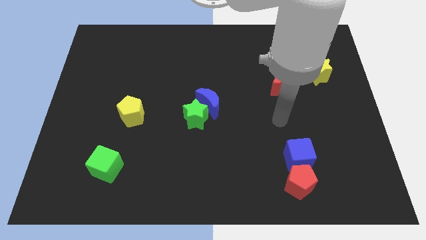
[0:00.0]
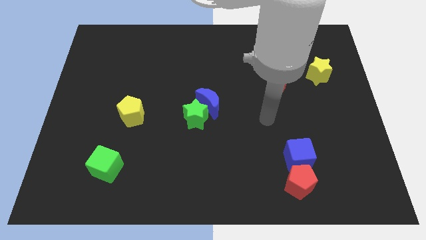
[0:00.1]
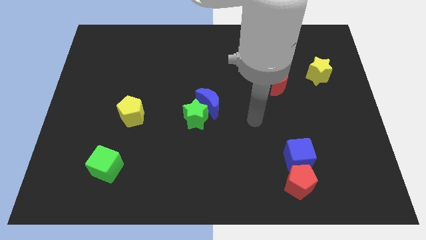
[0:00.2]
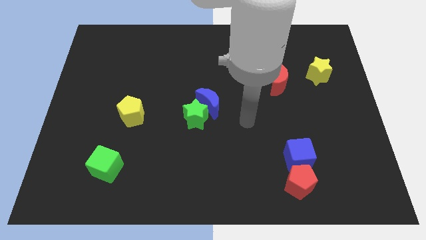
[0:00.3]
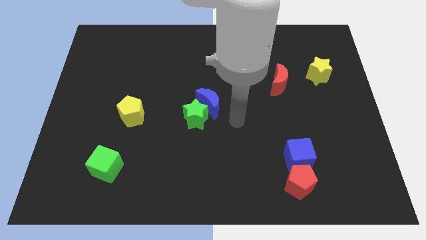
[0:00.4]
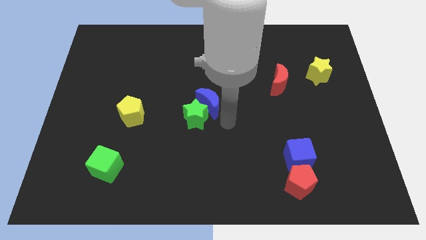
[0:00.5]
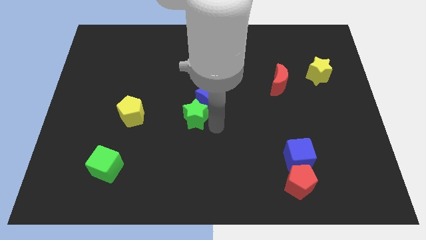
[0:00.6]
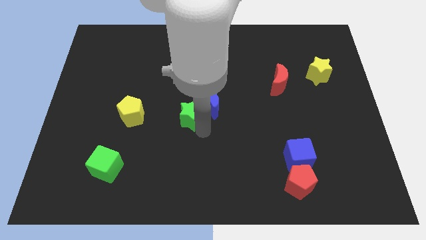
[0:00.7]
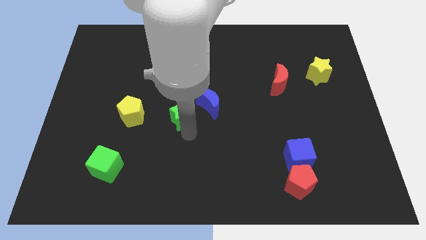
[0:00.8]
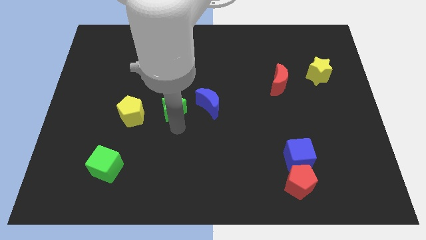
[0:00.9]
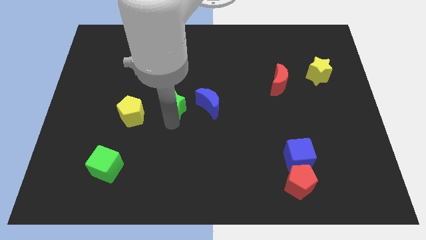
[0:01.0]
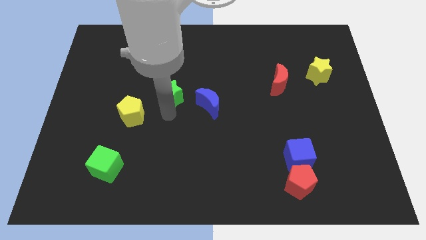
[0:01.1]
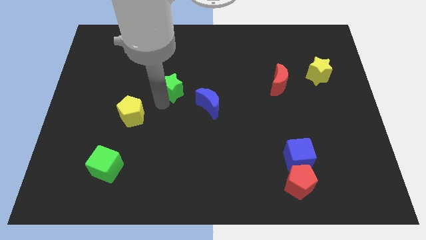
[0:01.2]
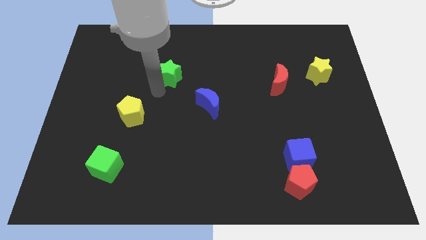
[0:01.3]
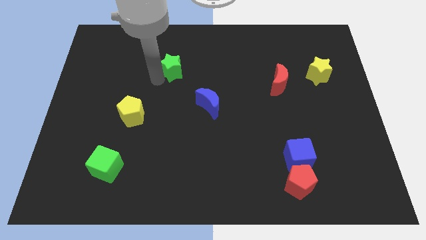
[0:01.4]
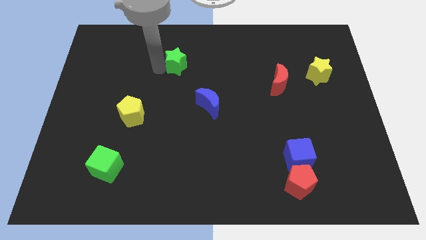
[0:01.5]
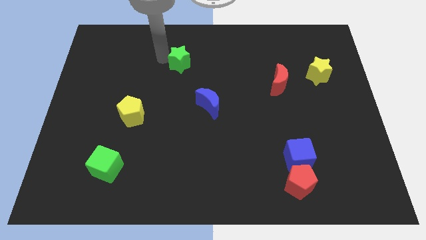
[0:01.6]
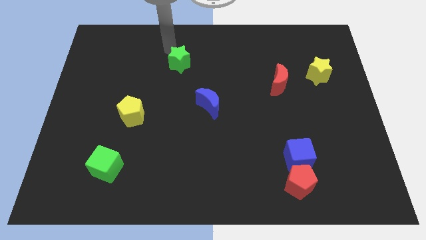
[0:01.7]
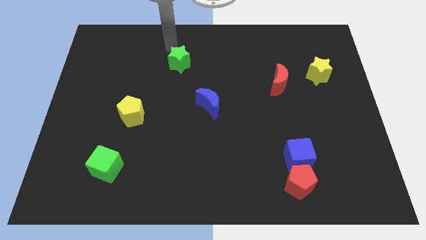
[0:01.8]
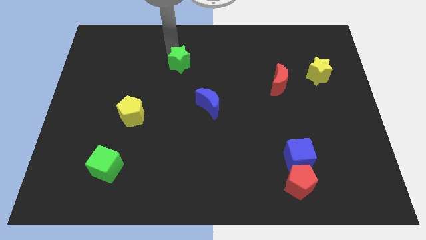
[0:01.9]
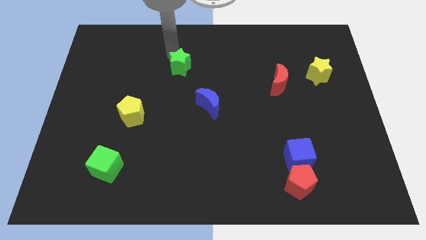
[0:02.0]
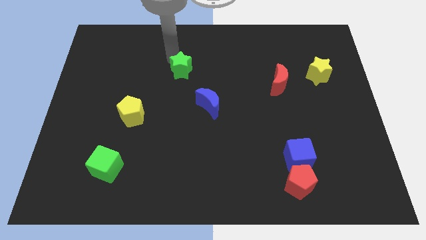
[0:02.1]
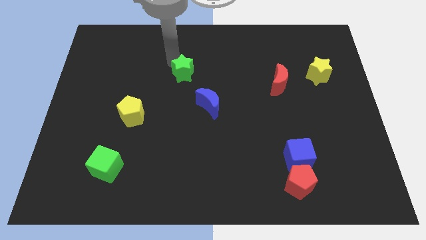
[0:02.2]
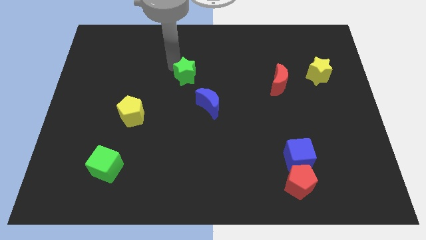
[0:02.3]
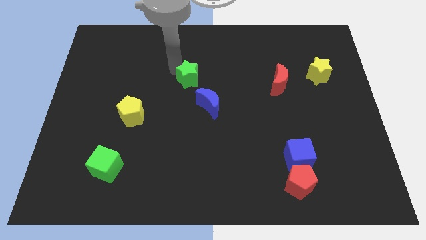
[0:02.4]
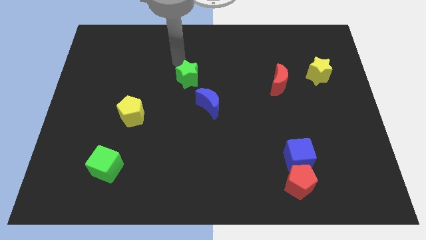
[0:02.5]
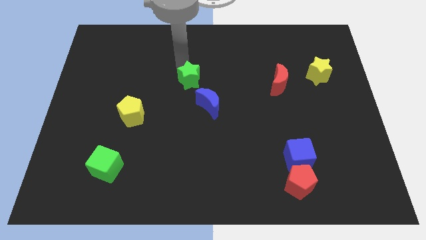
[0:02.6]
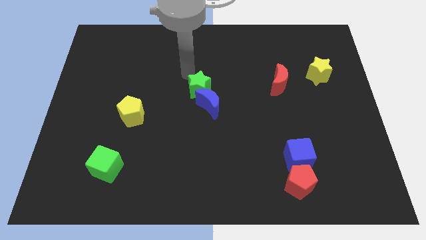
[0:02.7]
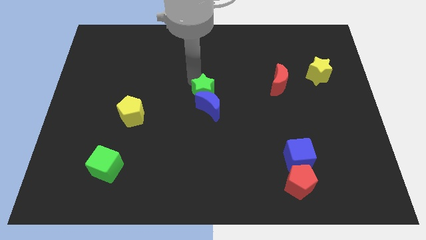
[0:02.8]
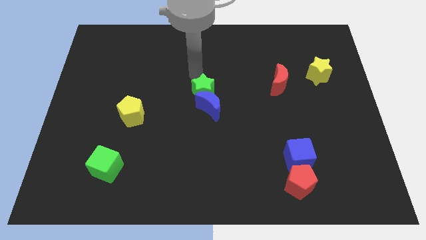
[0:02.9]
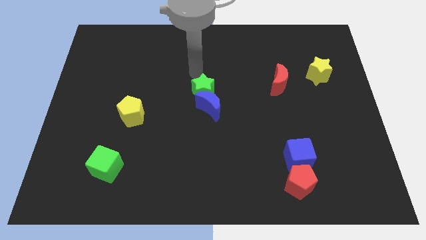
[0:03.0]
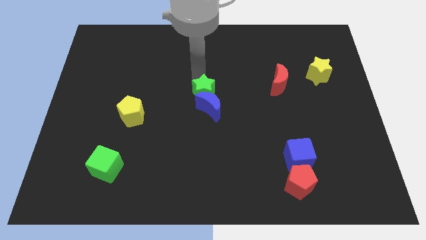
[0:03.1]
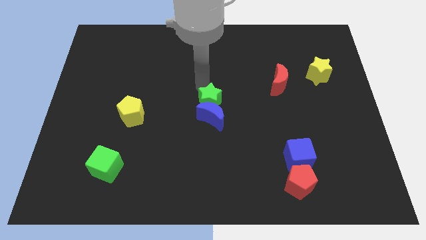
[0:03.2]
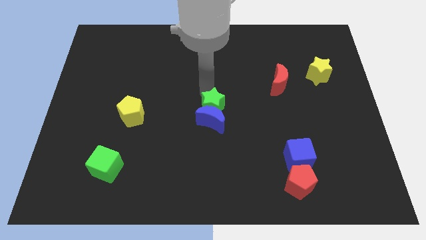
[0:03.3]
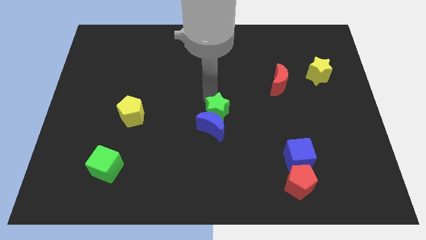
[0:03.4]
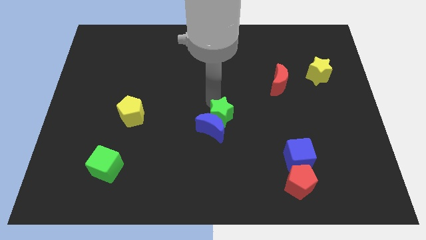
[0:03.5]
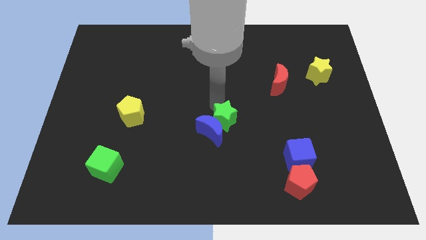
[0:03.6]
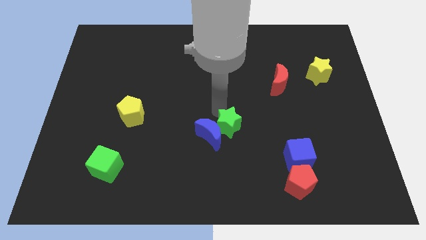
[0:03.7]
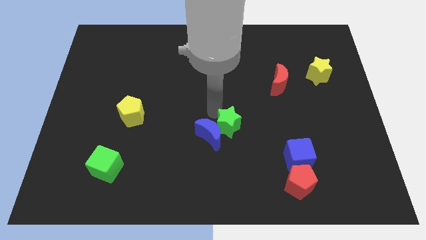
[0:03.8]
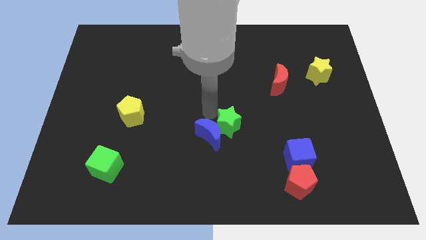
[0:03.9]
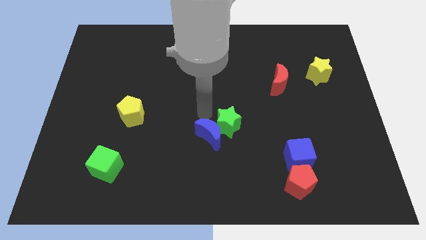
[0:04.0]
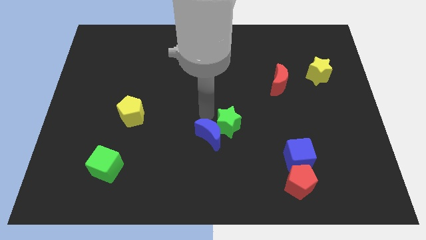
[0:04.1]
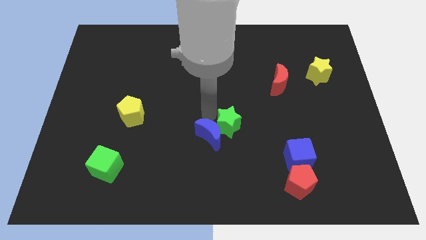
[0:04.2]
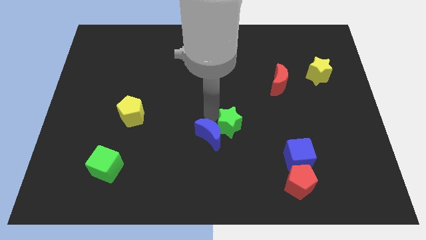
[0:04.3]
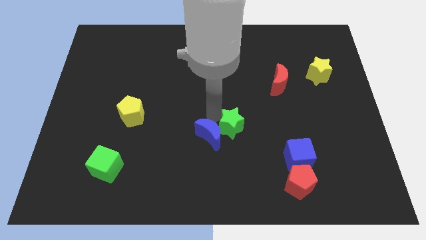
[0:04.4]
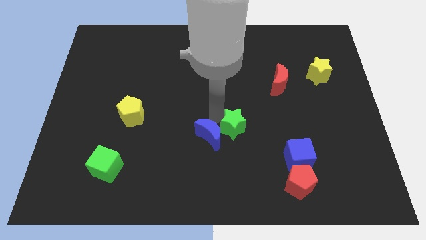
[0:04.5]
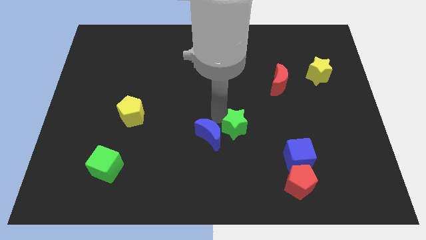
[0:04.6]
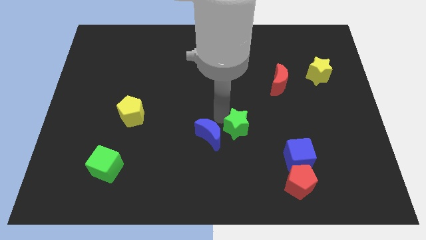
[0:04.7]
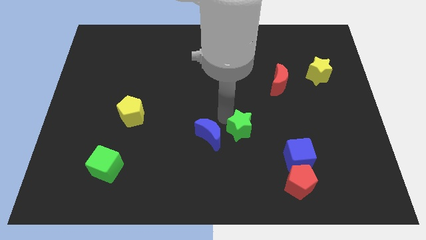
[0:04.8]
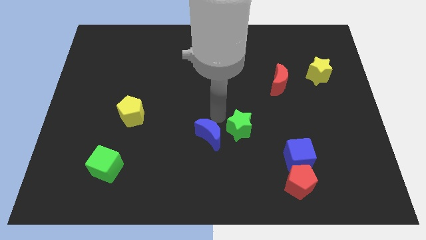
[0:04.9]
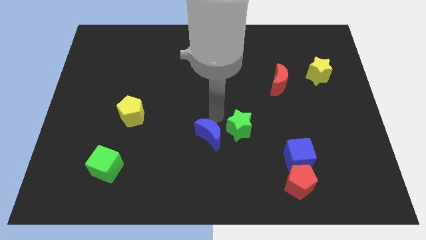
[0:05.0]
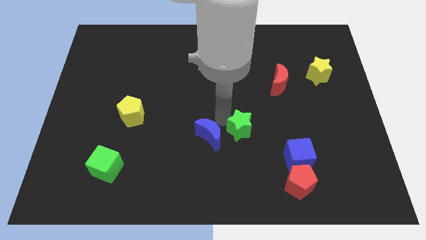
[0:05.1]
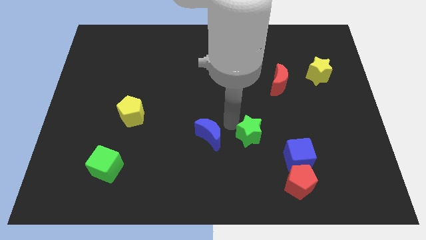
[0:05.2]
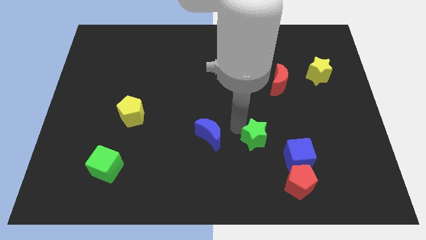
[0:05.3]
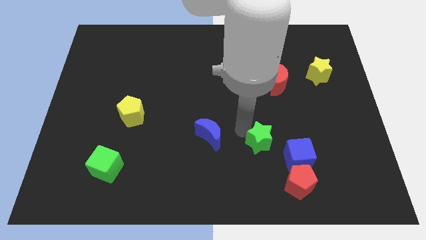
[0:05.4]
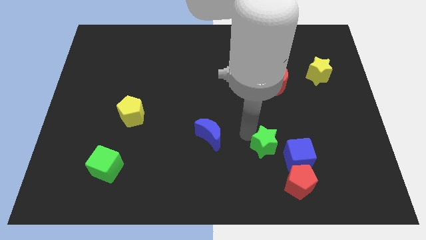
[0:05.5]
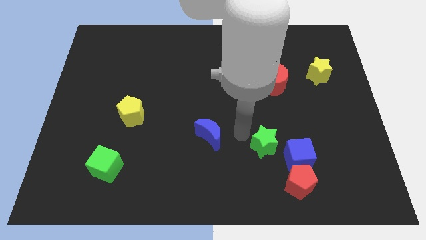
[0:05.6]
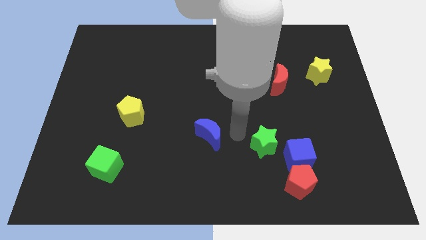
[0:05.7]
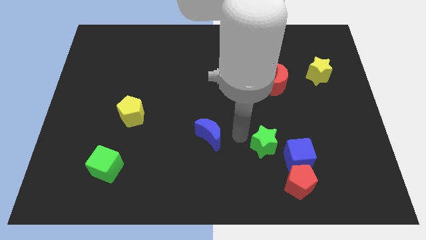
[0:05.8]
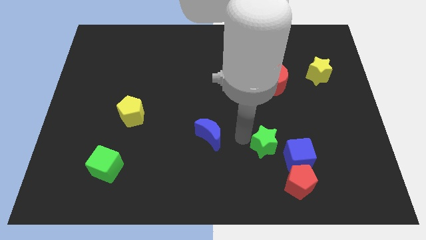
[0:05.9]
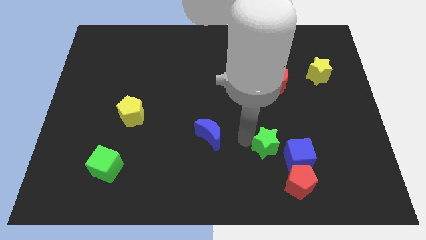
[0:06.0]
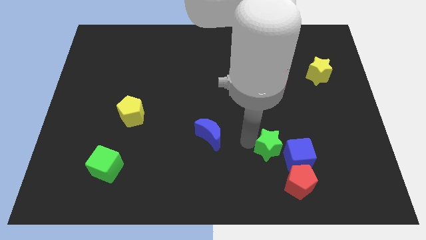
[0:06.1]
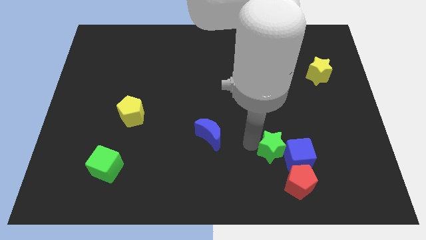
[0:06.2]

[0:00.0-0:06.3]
move the green star close to the blue cube
